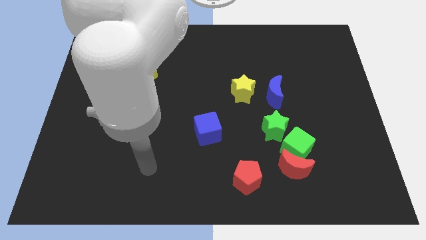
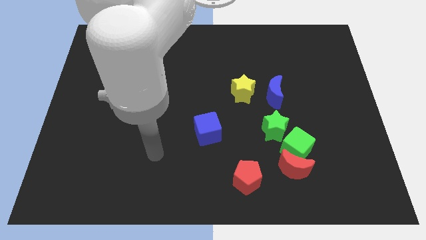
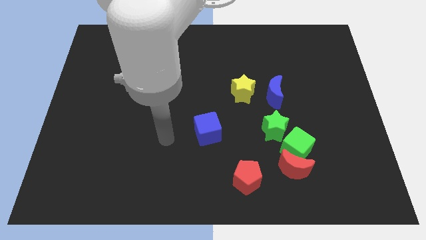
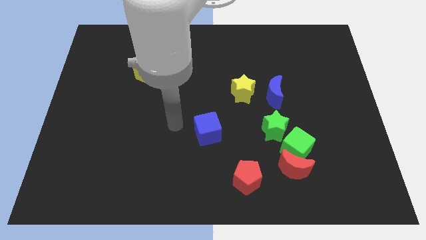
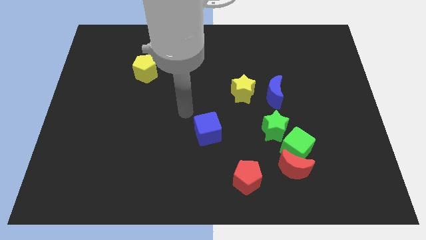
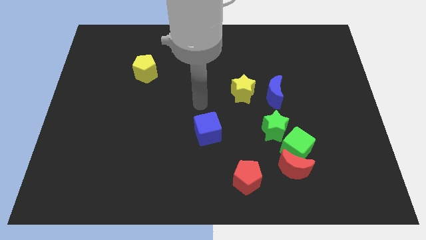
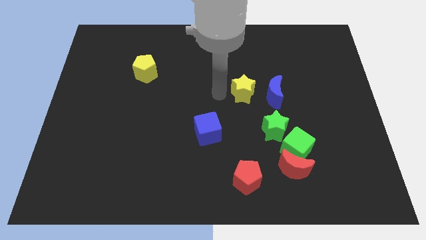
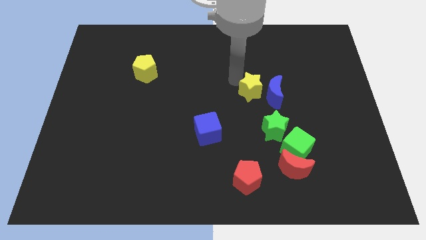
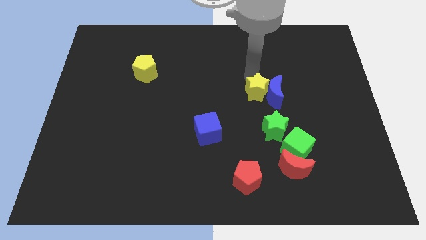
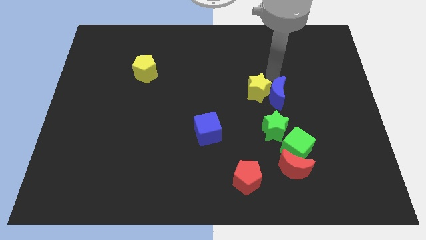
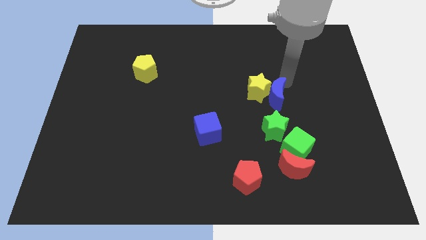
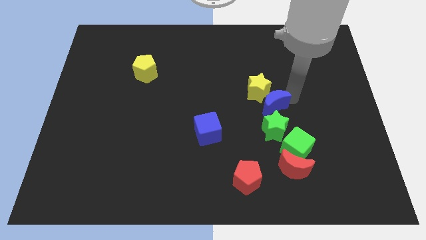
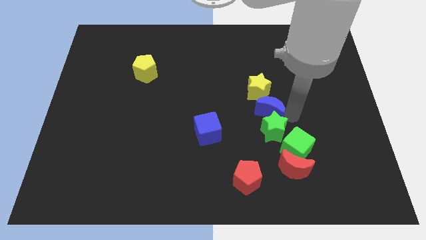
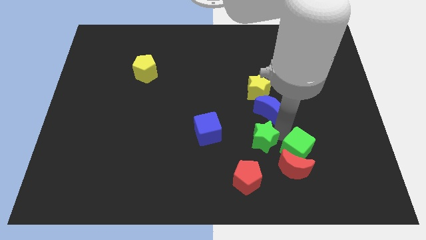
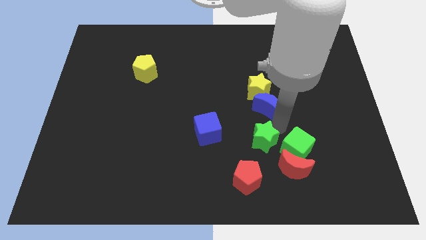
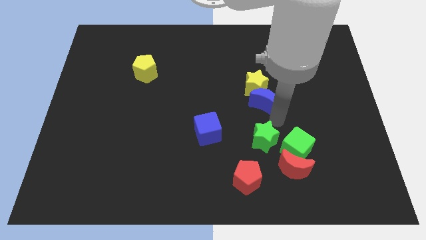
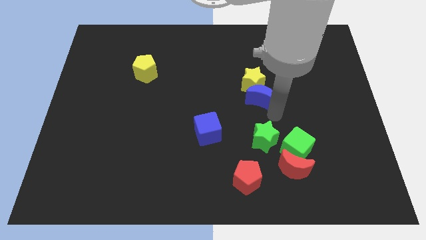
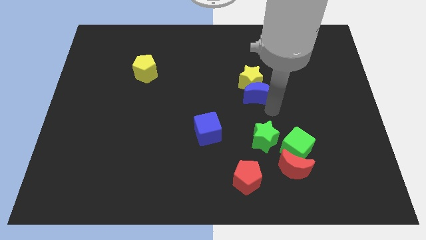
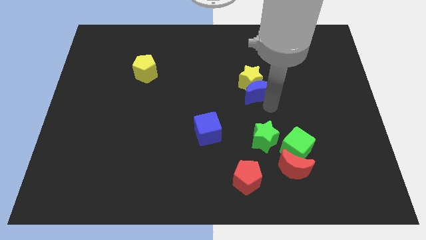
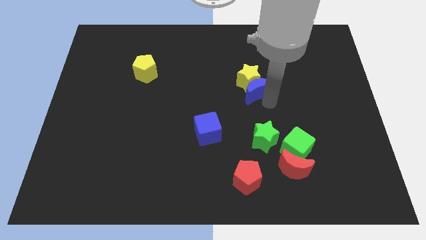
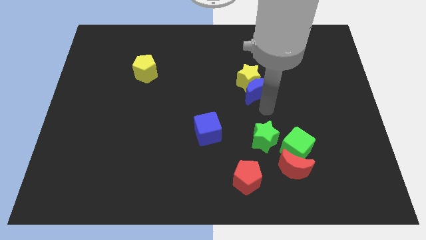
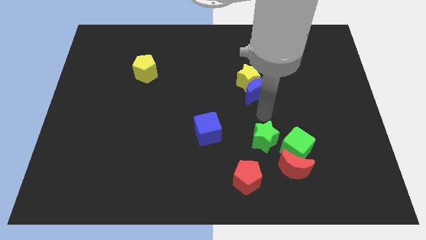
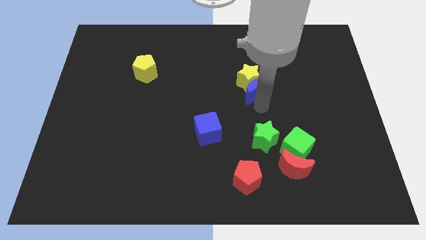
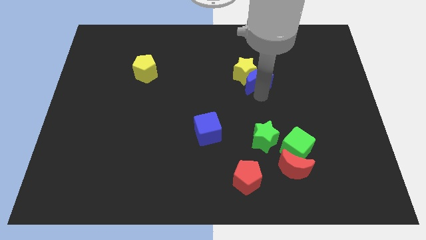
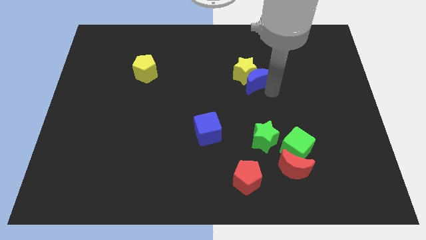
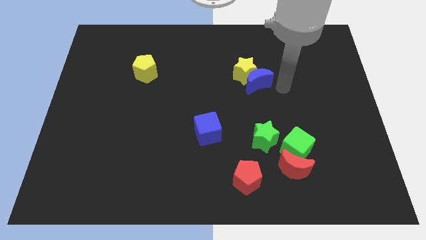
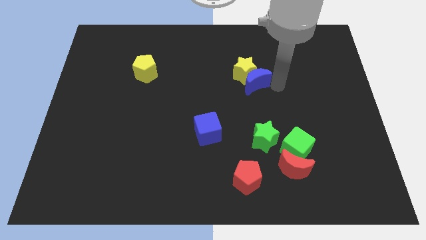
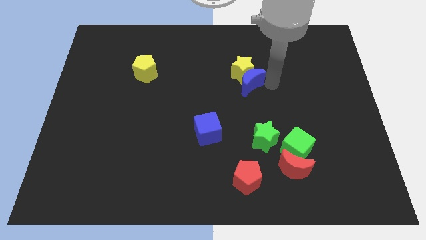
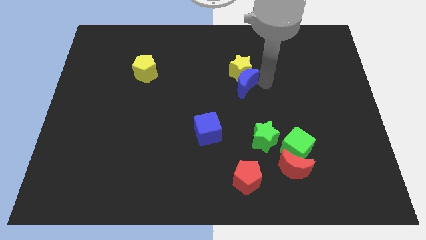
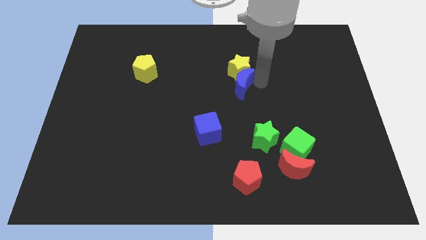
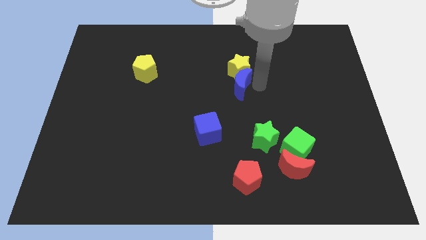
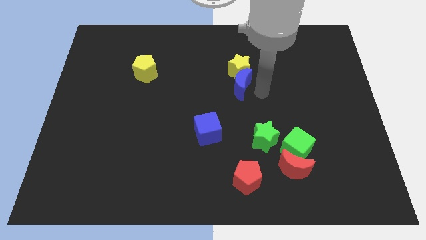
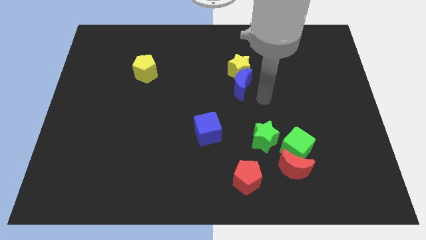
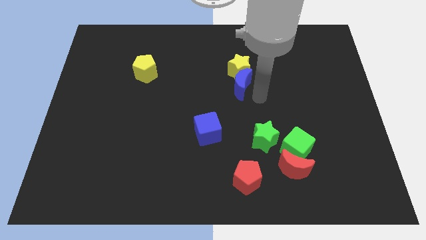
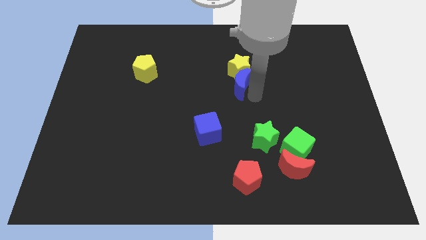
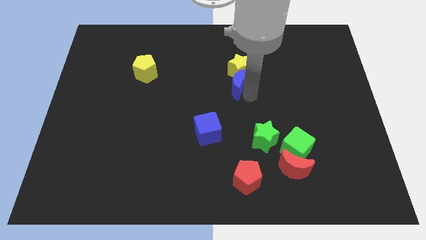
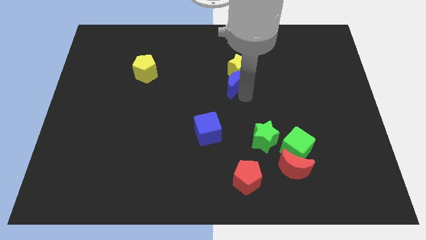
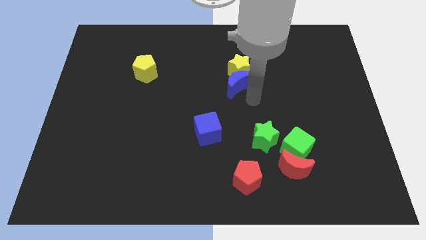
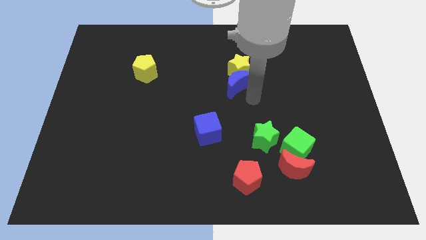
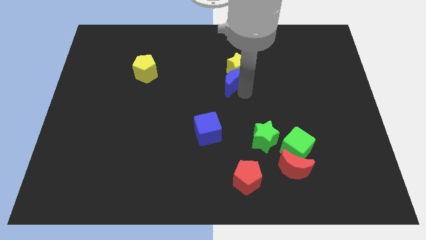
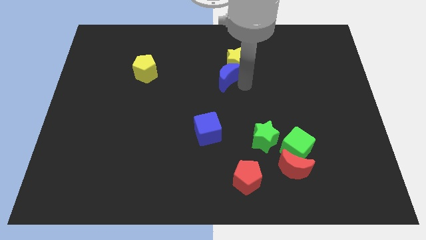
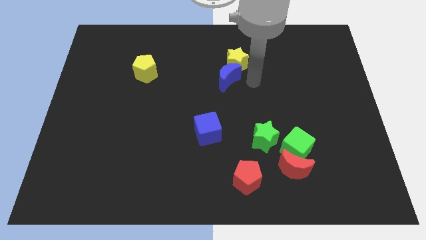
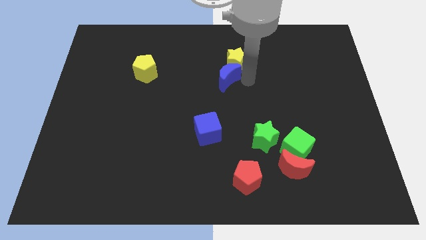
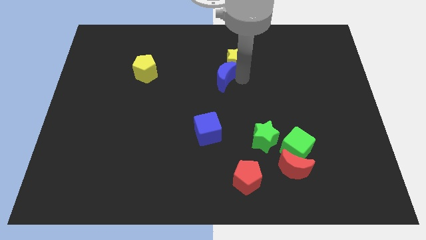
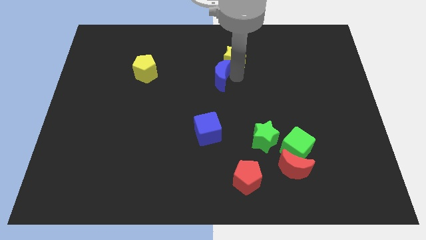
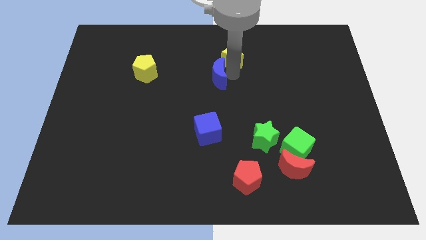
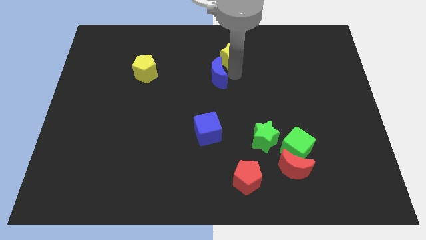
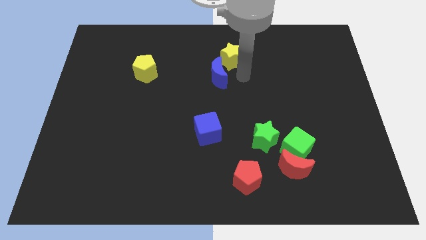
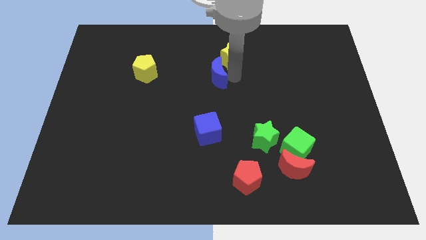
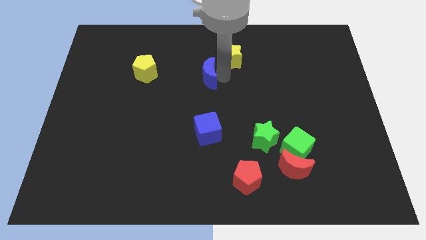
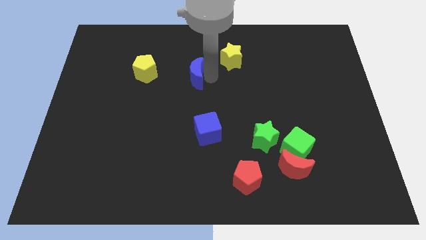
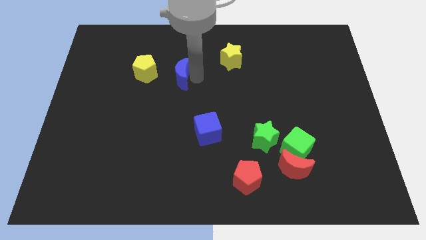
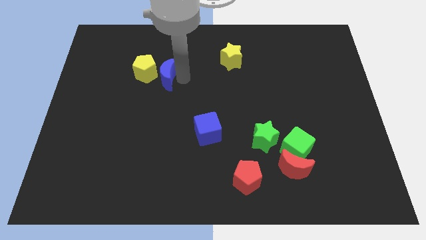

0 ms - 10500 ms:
push the blue moon close to the yellow pentagon

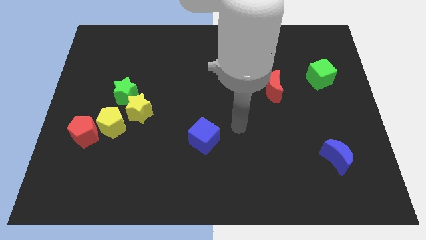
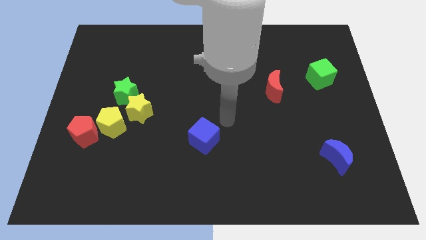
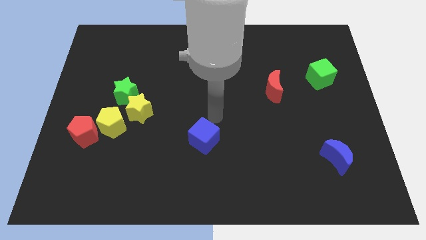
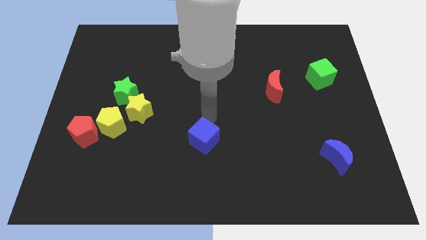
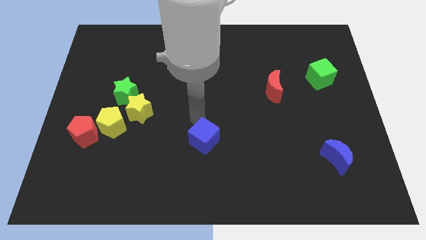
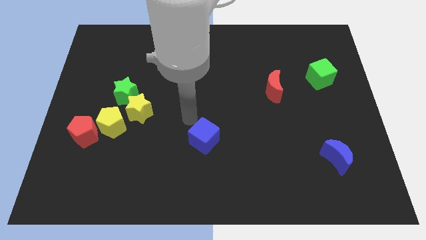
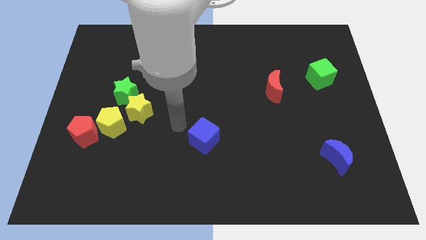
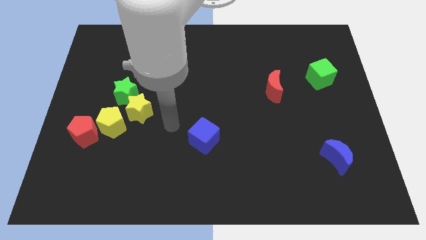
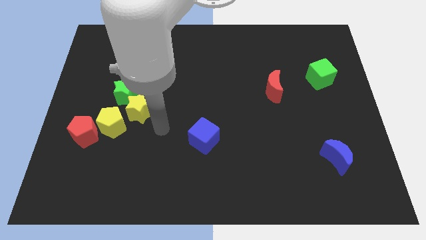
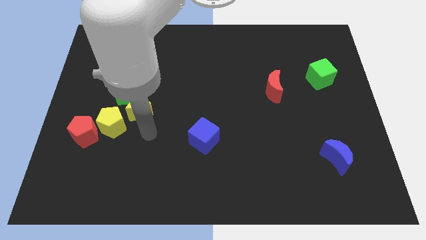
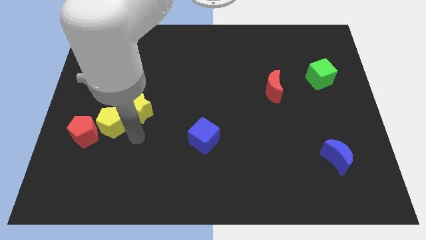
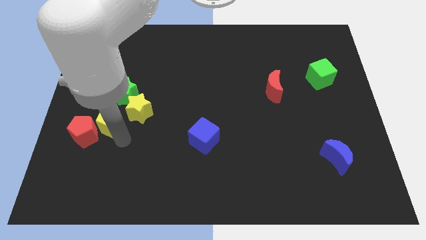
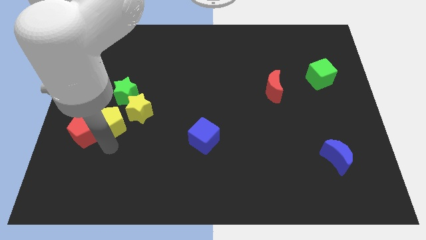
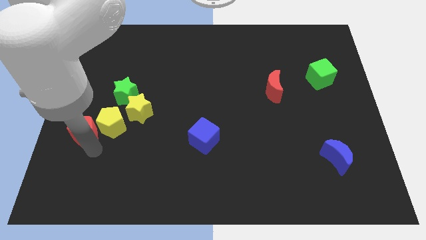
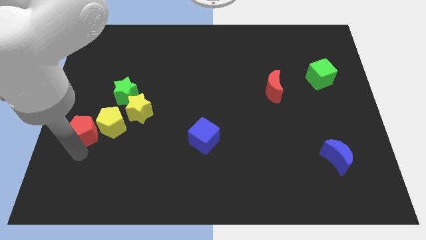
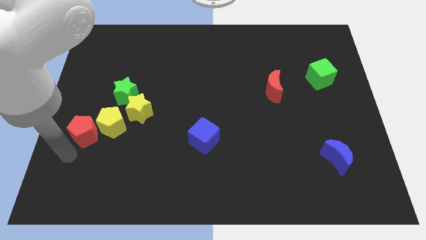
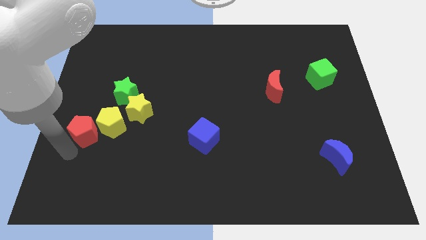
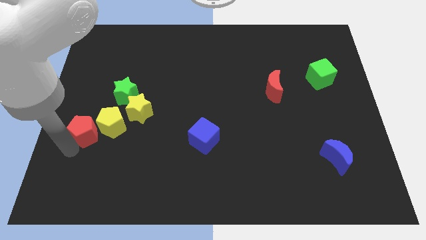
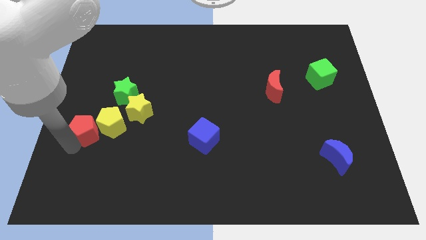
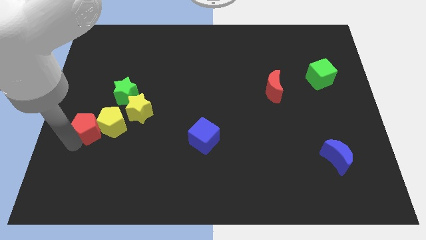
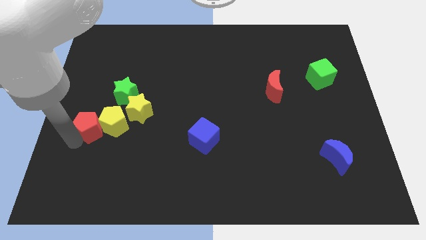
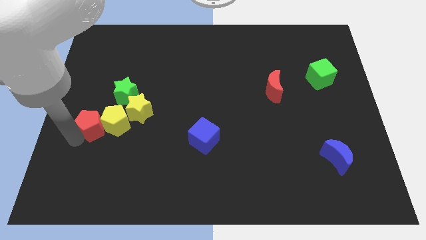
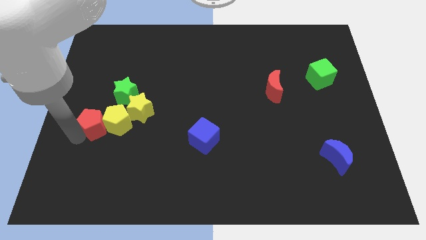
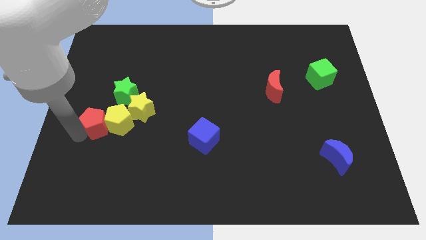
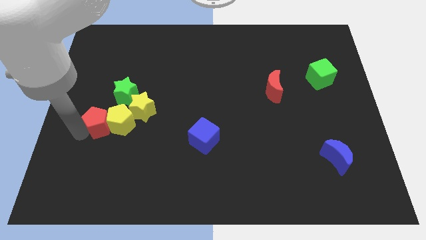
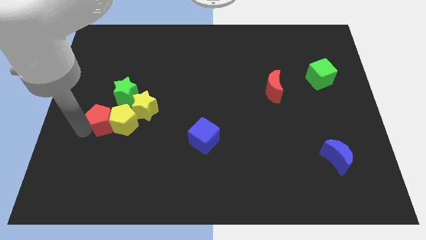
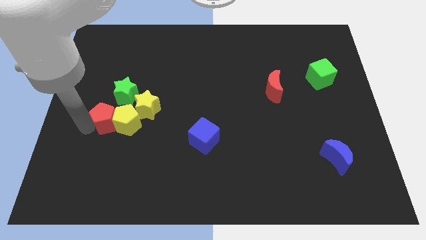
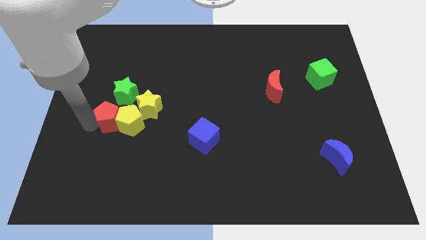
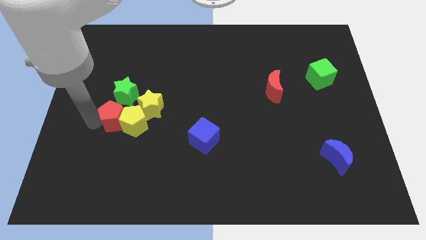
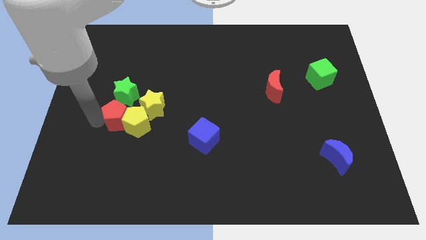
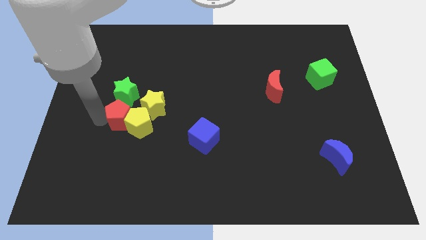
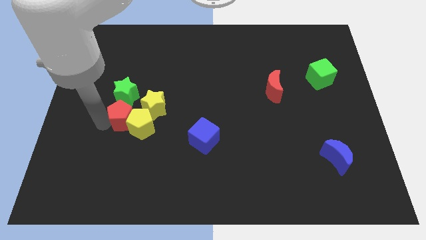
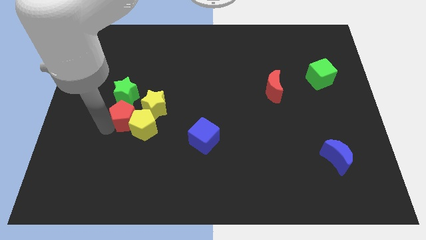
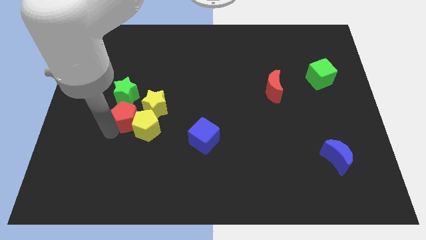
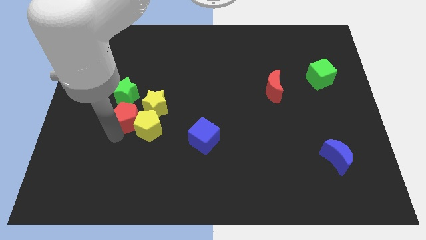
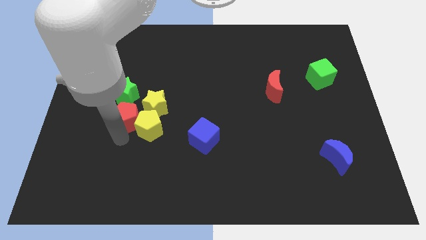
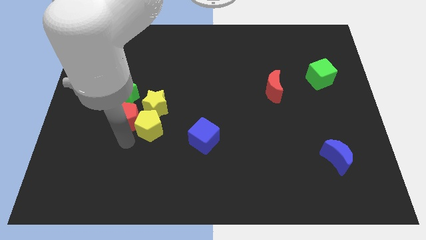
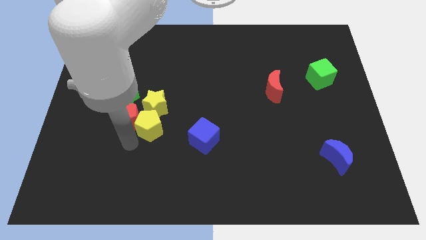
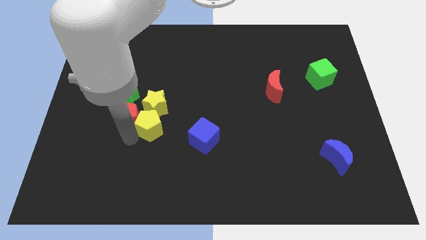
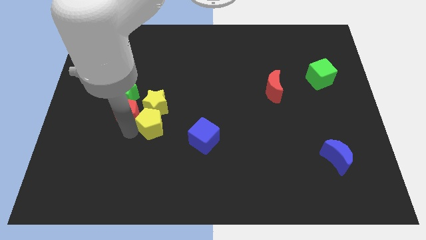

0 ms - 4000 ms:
push the red pentagon close to the green star
